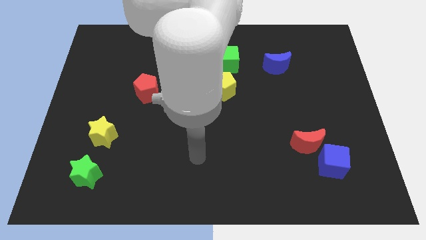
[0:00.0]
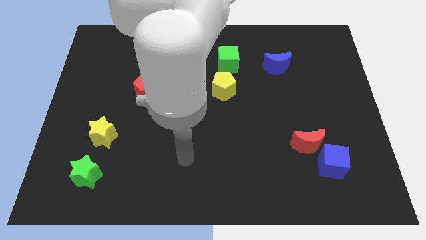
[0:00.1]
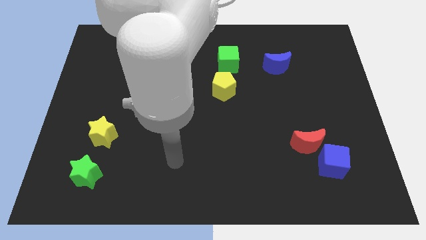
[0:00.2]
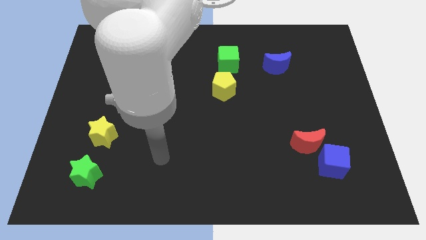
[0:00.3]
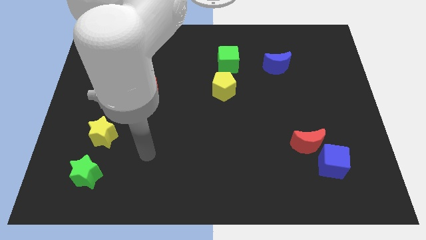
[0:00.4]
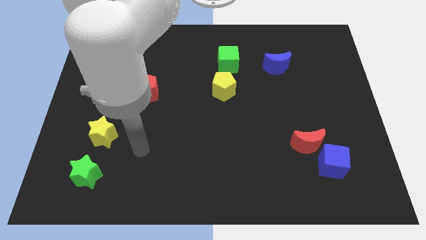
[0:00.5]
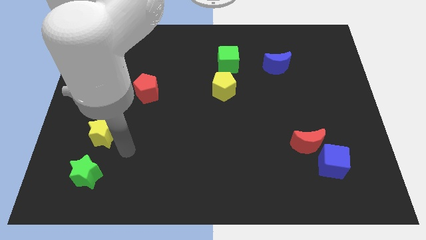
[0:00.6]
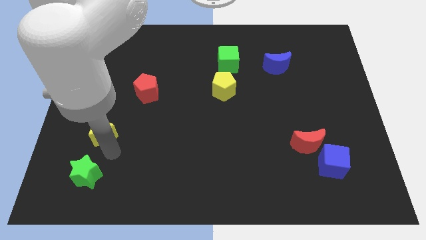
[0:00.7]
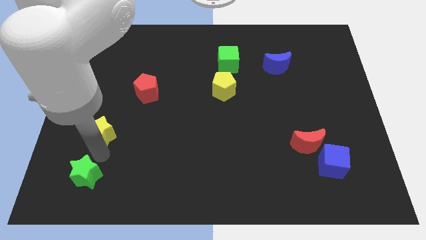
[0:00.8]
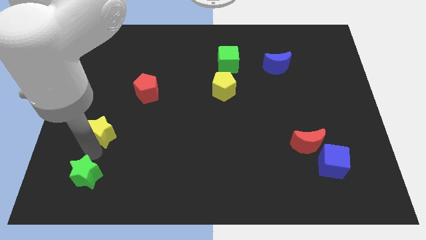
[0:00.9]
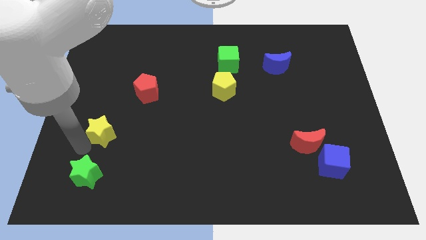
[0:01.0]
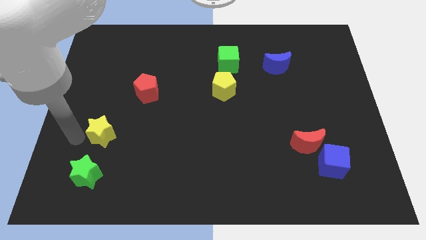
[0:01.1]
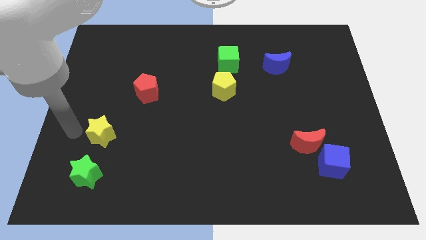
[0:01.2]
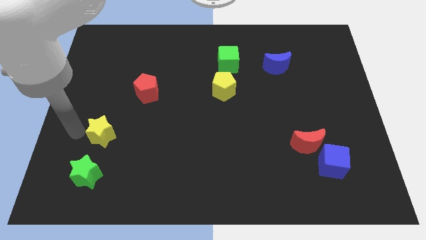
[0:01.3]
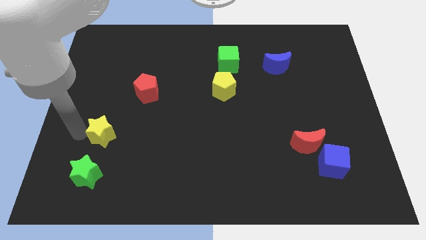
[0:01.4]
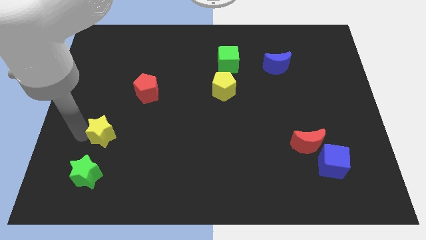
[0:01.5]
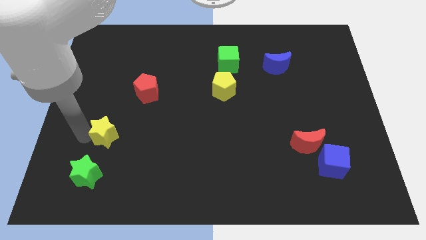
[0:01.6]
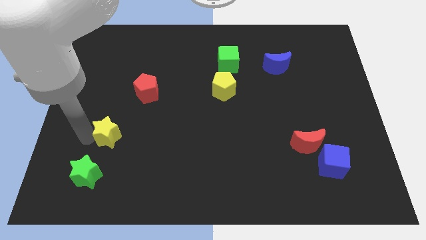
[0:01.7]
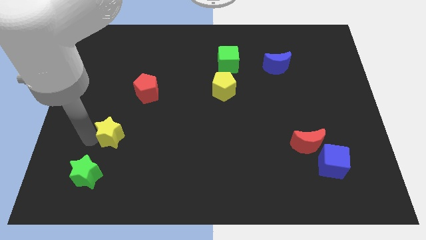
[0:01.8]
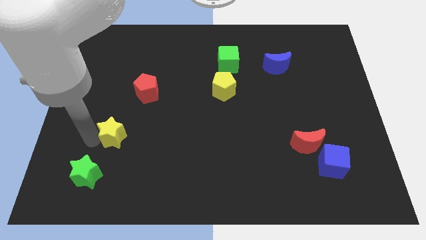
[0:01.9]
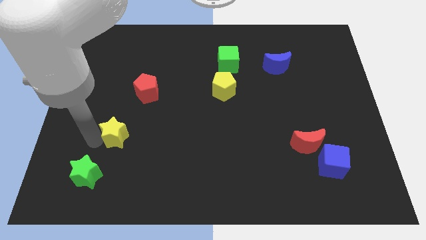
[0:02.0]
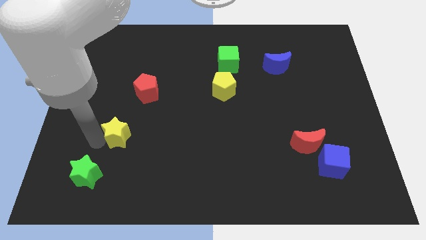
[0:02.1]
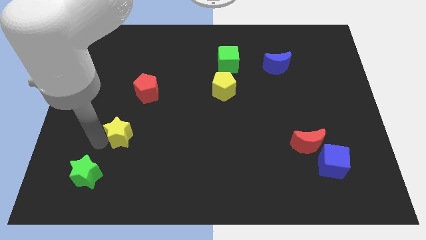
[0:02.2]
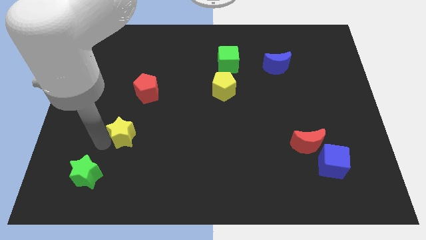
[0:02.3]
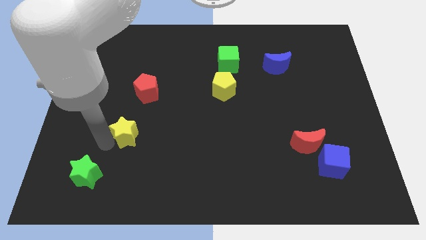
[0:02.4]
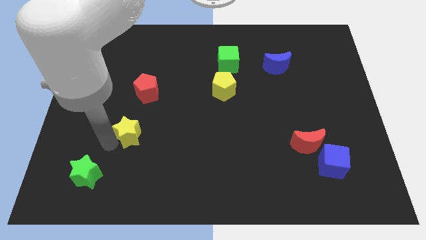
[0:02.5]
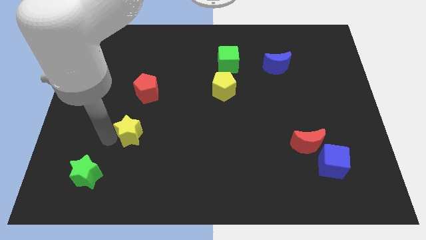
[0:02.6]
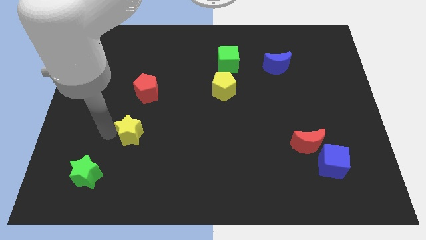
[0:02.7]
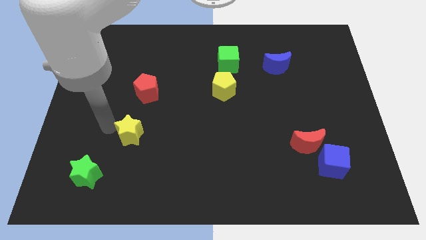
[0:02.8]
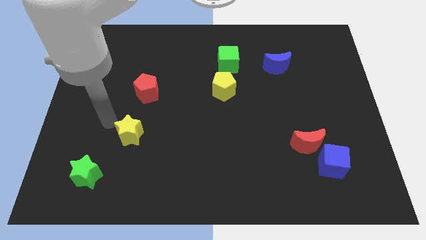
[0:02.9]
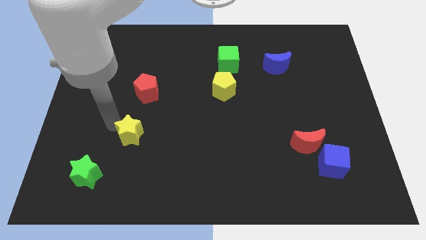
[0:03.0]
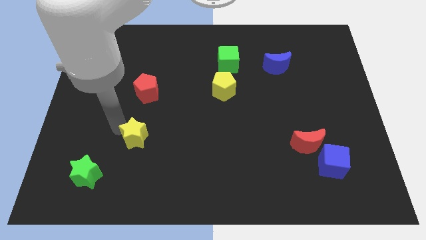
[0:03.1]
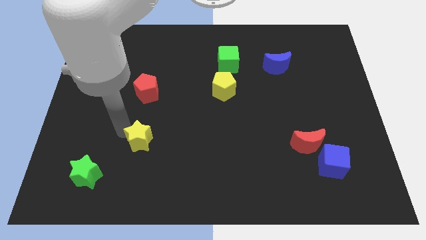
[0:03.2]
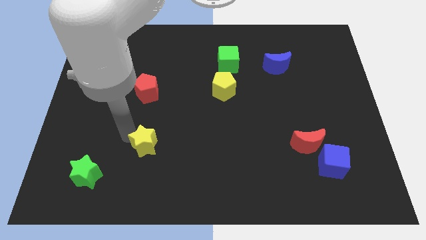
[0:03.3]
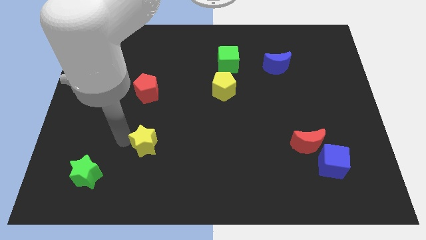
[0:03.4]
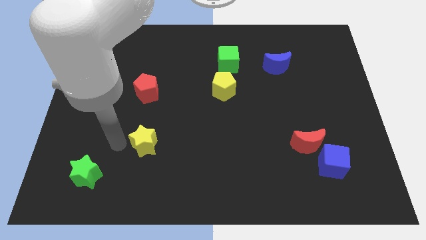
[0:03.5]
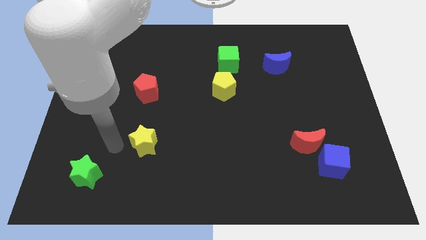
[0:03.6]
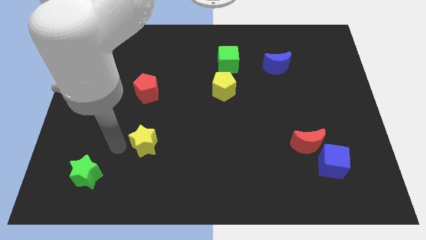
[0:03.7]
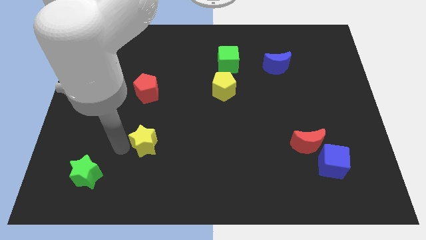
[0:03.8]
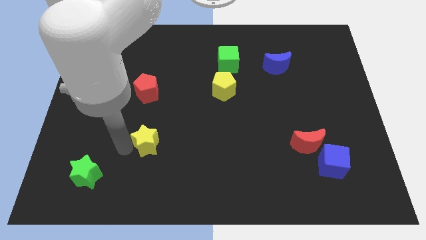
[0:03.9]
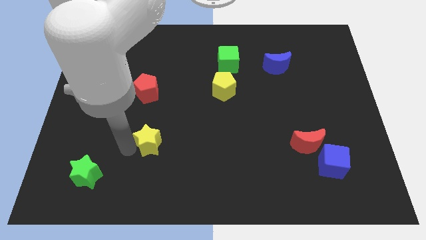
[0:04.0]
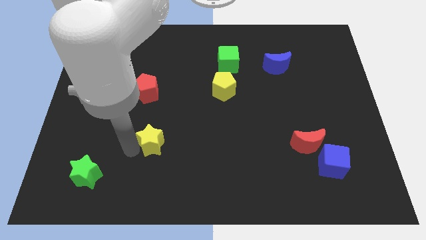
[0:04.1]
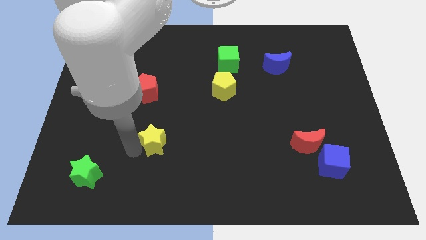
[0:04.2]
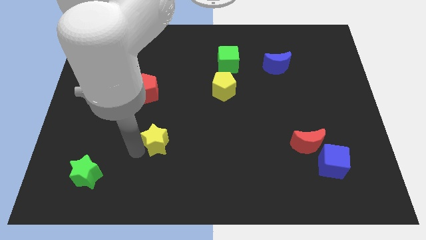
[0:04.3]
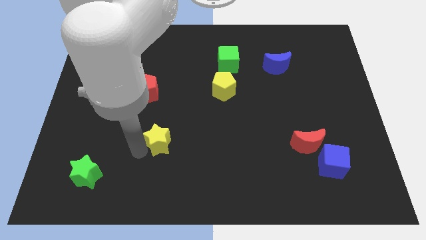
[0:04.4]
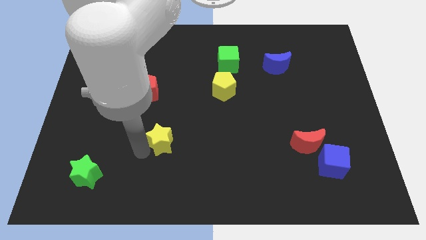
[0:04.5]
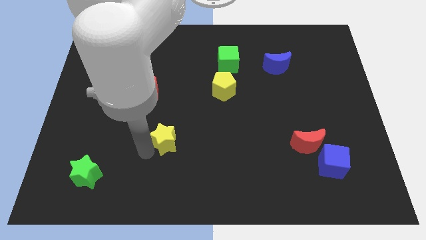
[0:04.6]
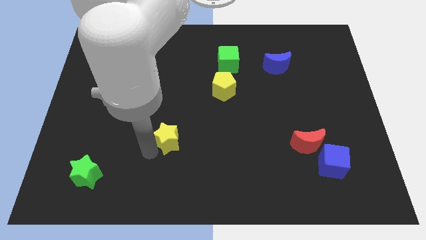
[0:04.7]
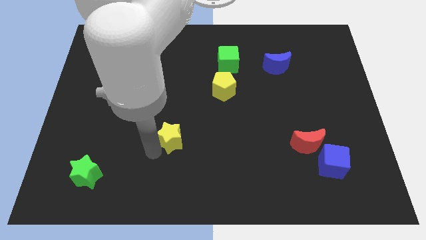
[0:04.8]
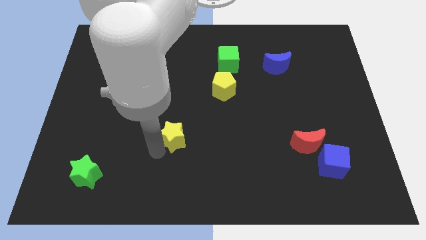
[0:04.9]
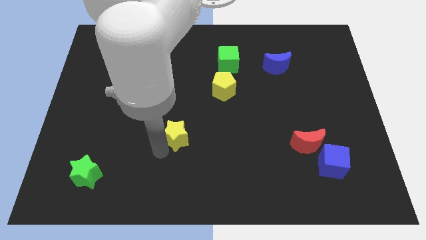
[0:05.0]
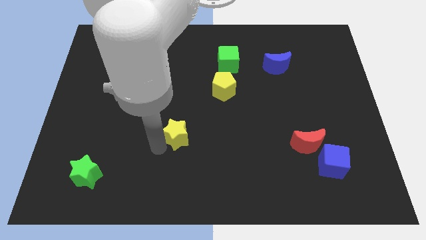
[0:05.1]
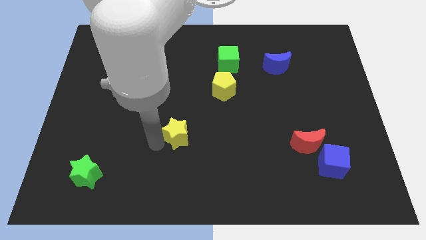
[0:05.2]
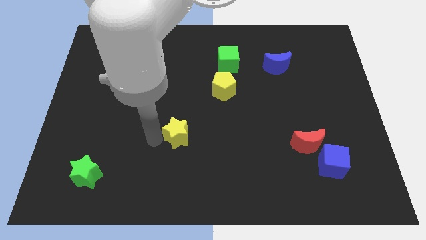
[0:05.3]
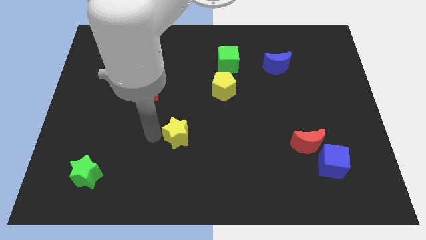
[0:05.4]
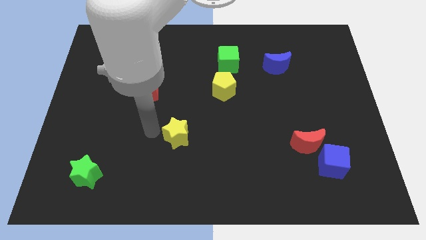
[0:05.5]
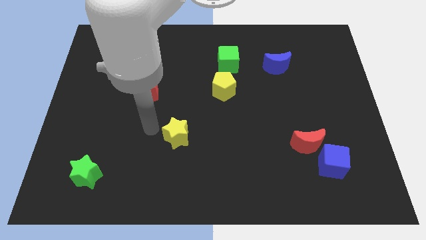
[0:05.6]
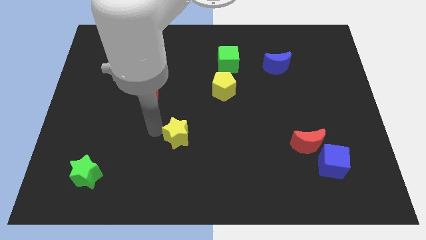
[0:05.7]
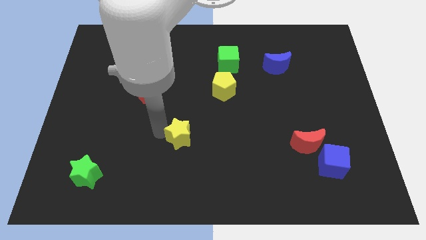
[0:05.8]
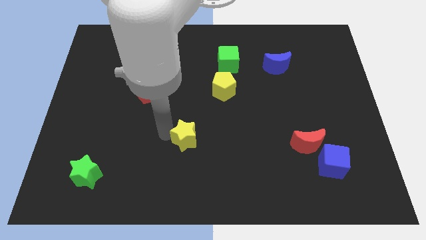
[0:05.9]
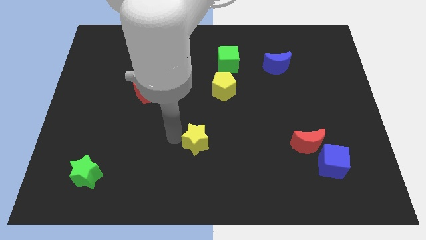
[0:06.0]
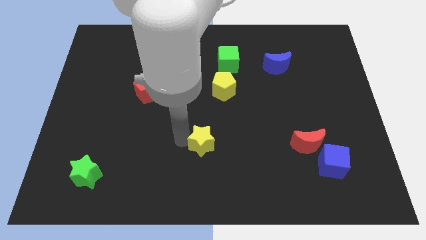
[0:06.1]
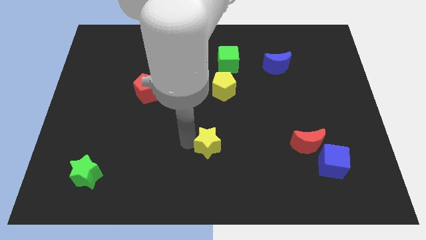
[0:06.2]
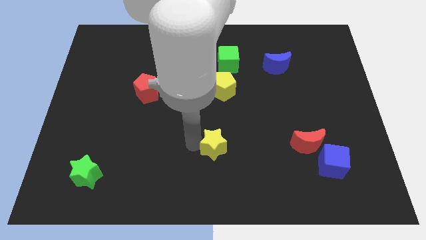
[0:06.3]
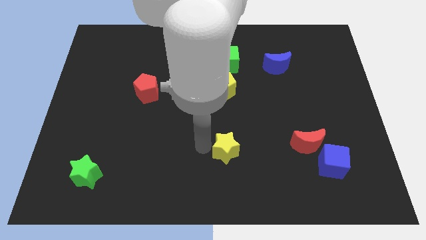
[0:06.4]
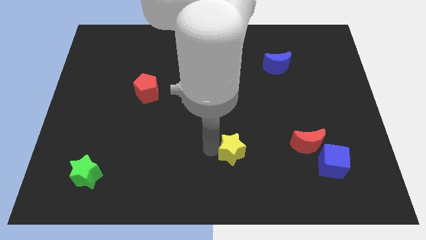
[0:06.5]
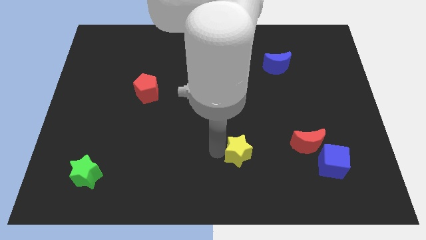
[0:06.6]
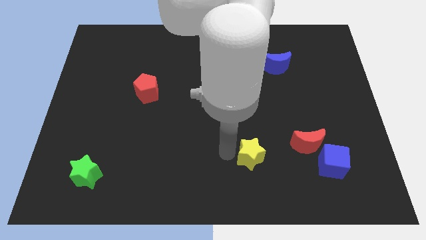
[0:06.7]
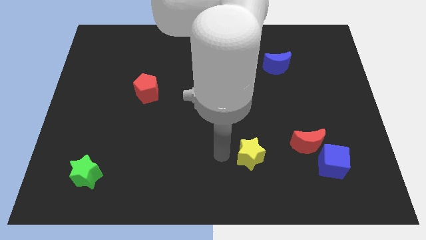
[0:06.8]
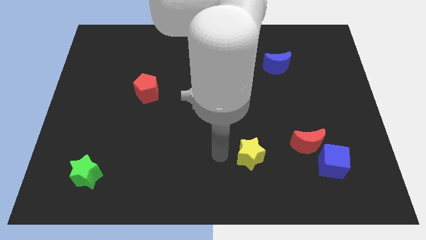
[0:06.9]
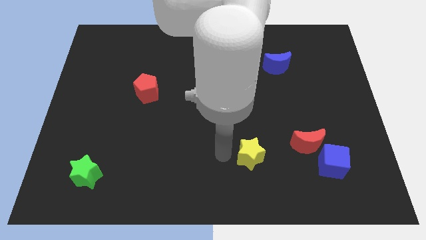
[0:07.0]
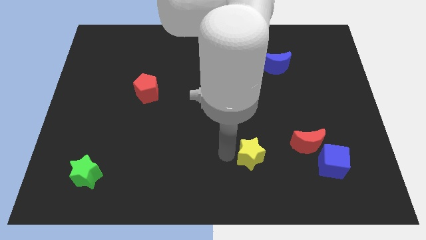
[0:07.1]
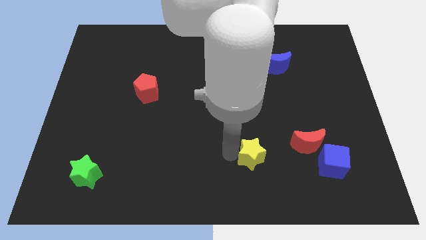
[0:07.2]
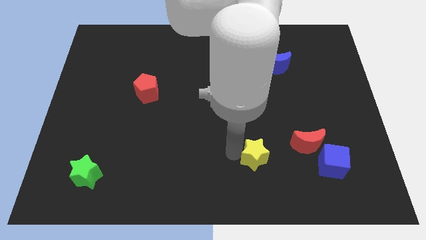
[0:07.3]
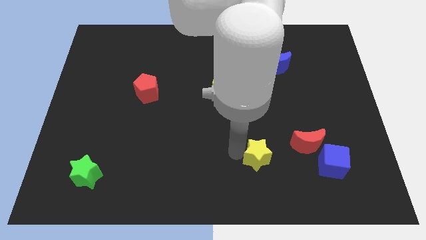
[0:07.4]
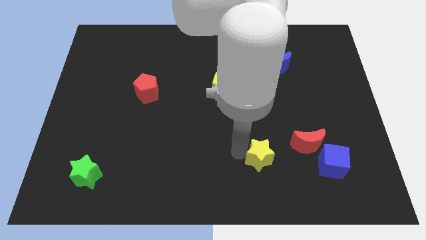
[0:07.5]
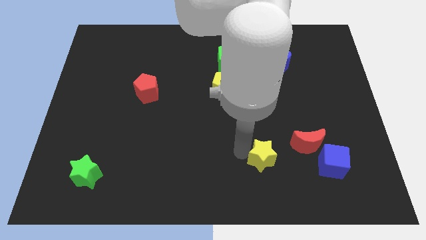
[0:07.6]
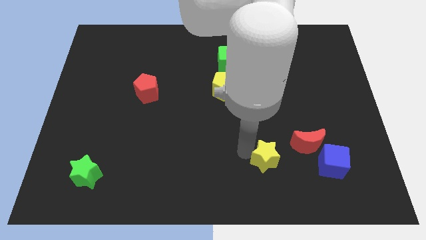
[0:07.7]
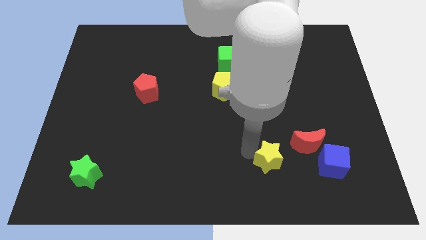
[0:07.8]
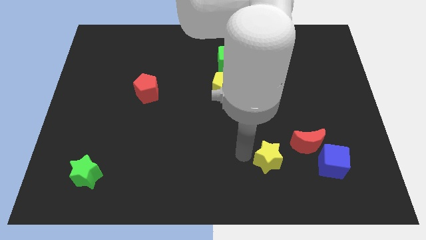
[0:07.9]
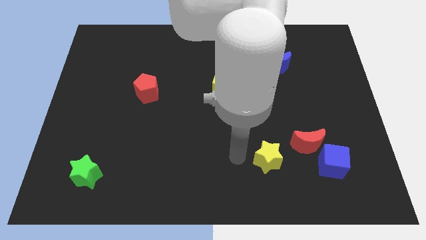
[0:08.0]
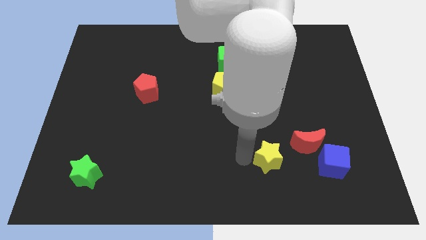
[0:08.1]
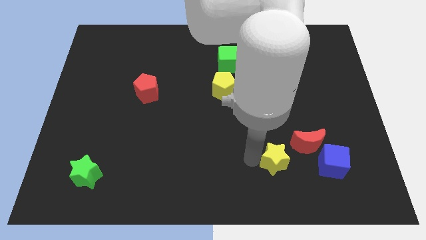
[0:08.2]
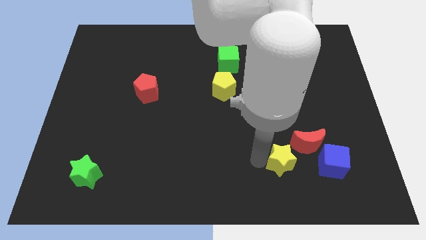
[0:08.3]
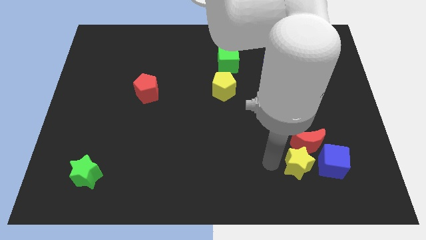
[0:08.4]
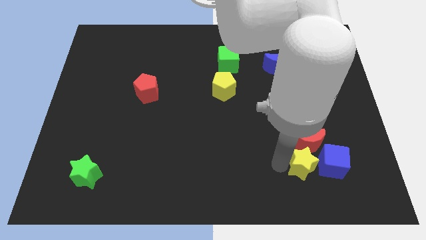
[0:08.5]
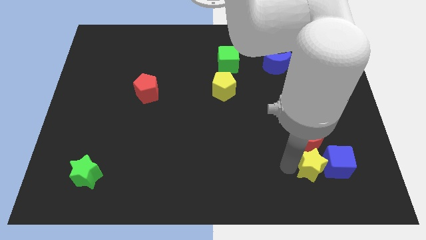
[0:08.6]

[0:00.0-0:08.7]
put the yellow star to the blue cube
